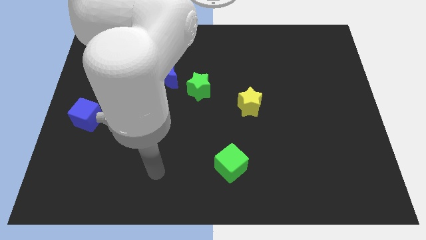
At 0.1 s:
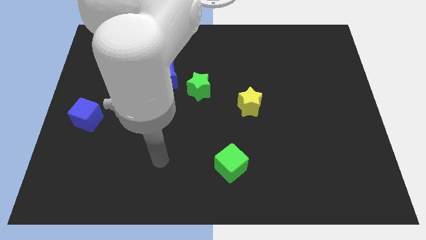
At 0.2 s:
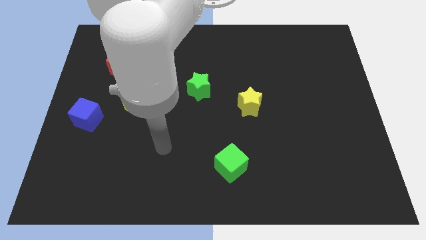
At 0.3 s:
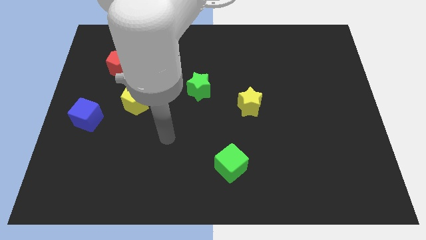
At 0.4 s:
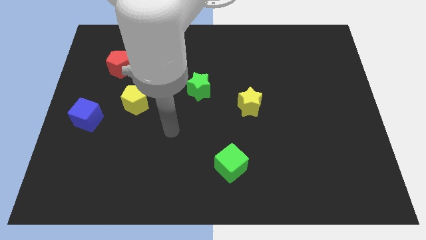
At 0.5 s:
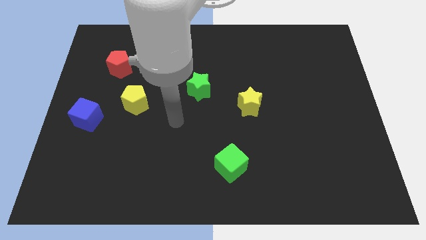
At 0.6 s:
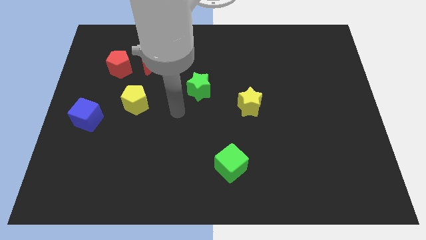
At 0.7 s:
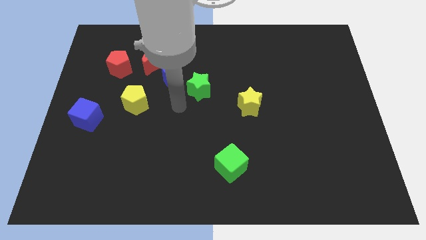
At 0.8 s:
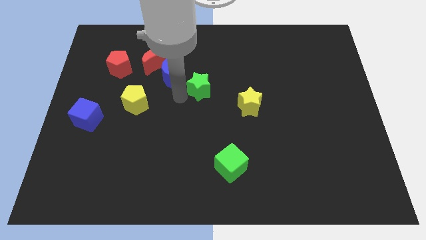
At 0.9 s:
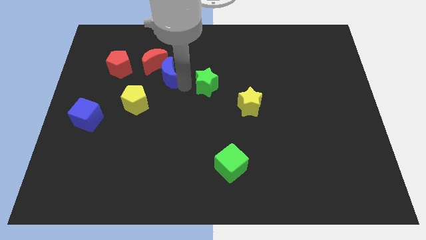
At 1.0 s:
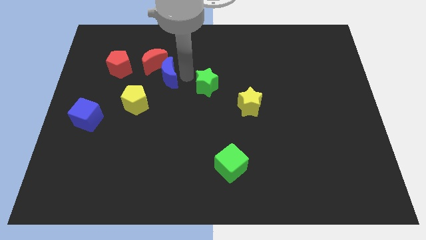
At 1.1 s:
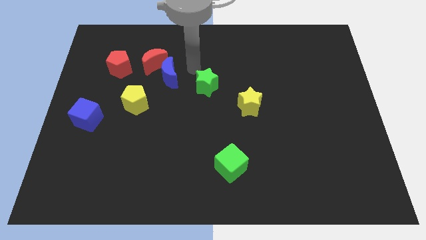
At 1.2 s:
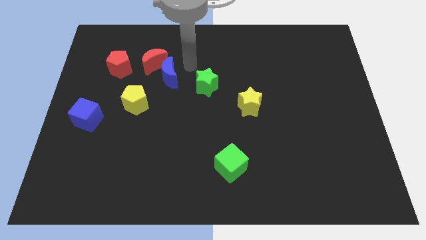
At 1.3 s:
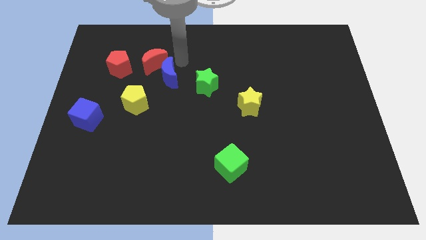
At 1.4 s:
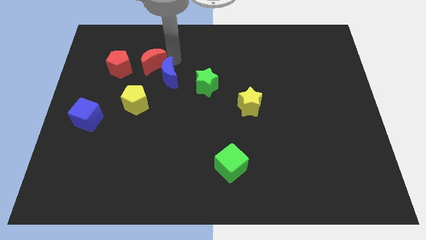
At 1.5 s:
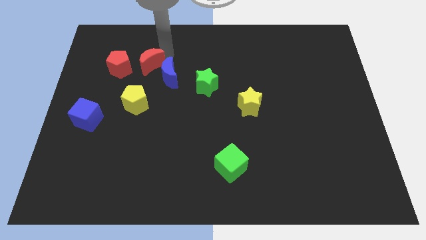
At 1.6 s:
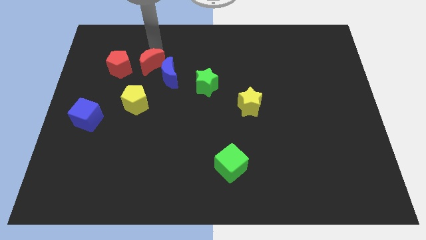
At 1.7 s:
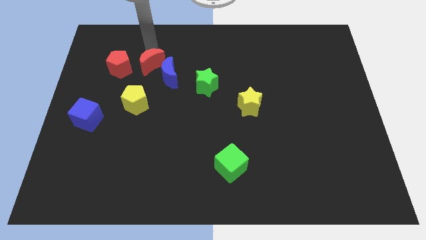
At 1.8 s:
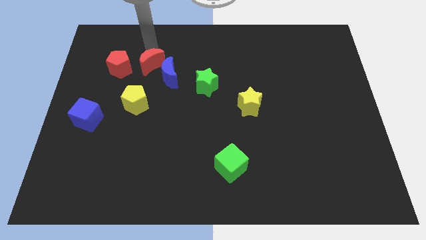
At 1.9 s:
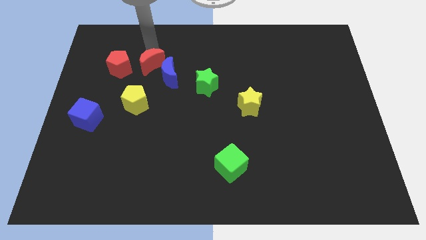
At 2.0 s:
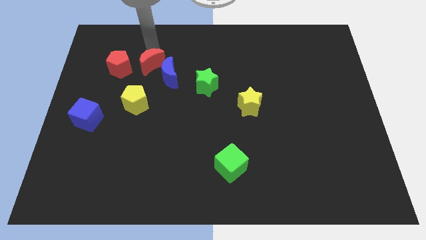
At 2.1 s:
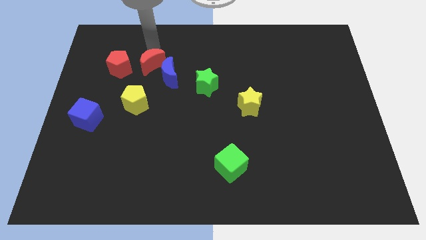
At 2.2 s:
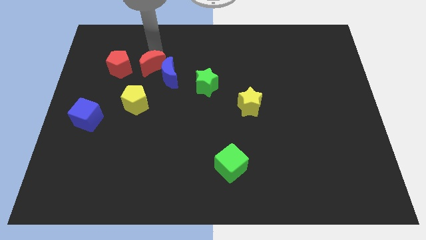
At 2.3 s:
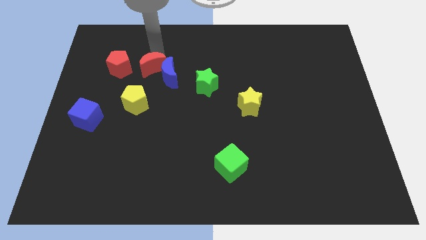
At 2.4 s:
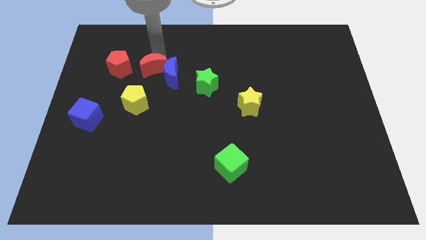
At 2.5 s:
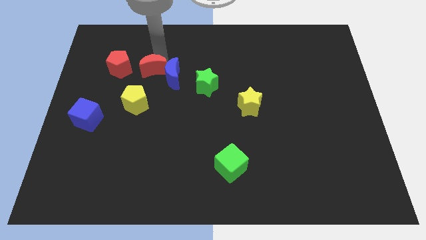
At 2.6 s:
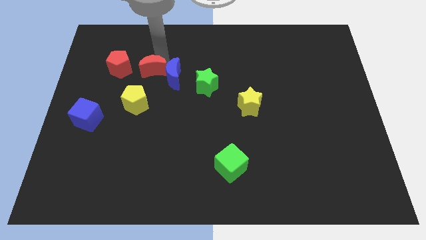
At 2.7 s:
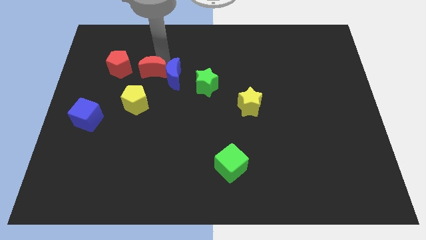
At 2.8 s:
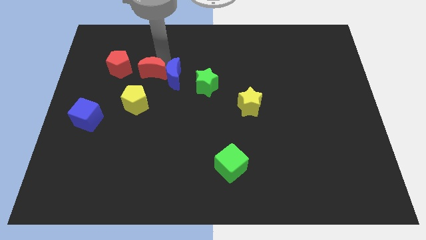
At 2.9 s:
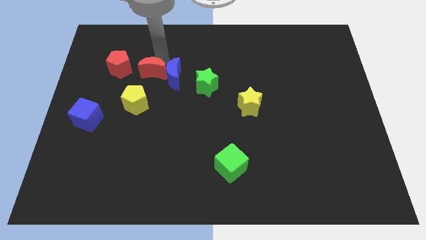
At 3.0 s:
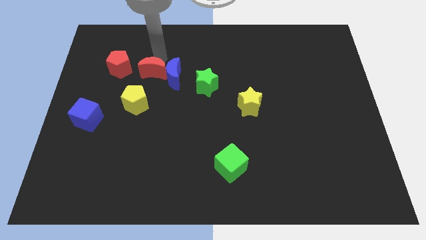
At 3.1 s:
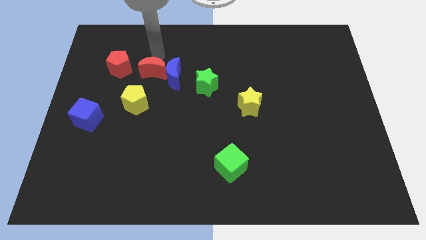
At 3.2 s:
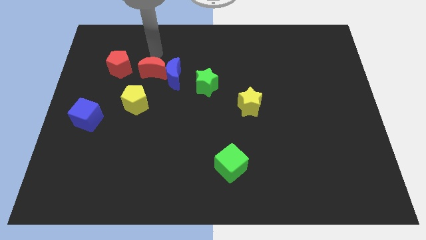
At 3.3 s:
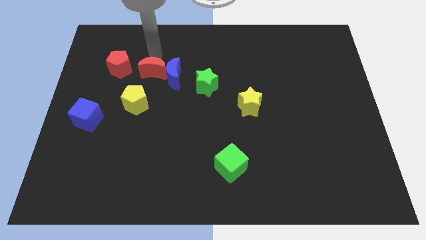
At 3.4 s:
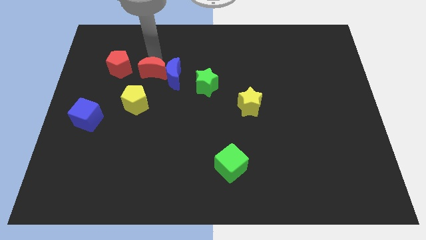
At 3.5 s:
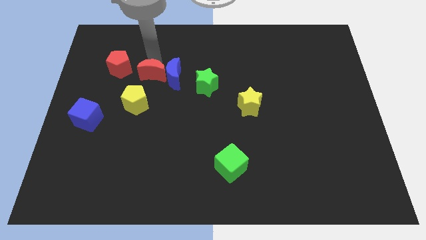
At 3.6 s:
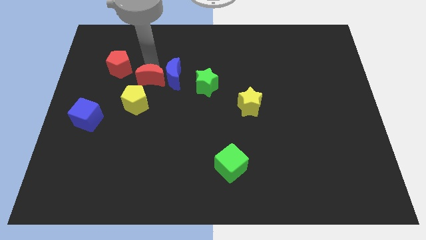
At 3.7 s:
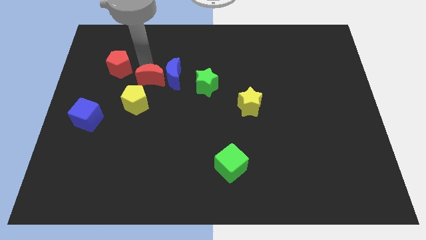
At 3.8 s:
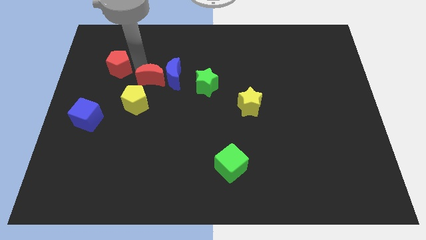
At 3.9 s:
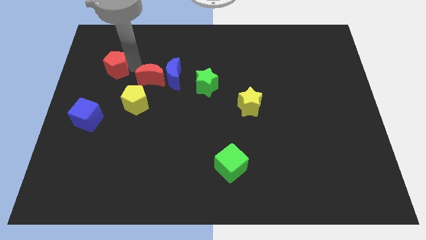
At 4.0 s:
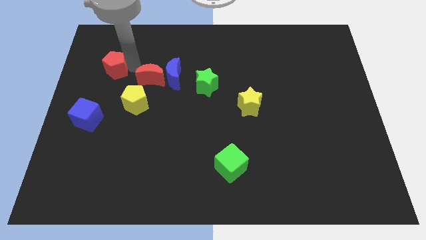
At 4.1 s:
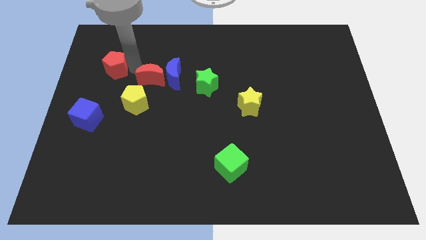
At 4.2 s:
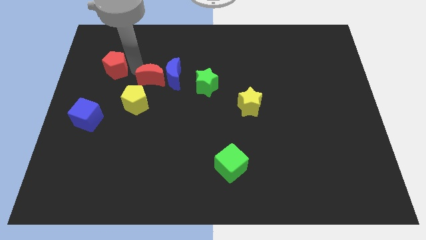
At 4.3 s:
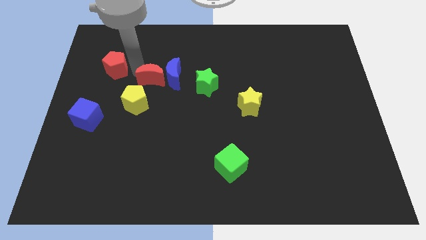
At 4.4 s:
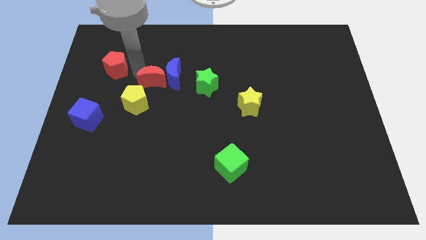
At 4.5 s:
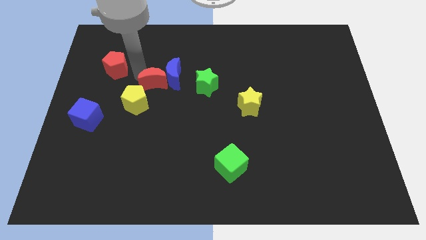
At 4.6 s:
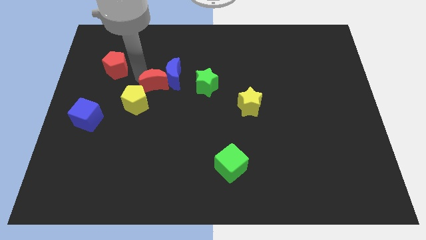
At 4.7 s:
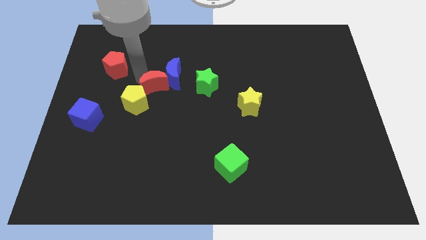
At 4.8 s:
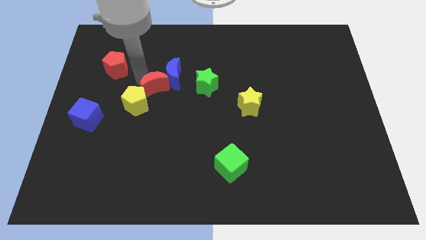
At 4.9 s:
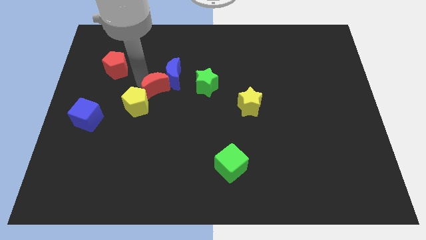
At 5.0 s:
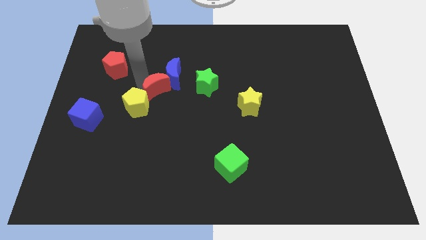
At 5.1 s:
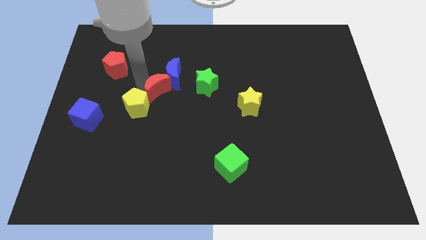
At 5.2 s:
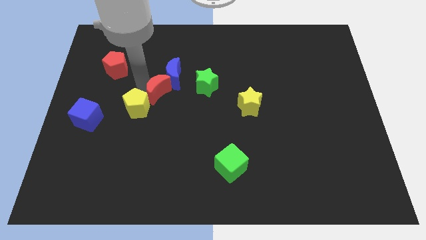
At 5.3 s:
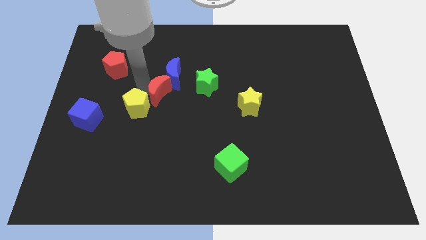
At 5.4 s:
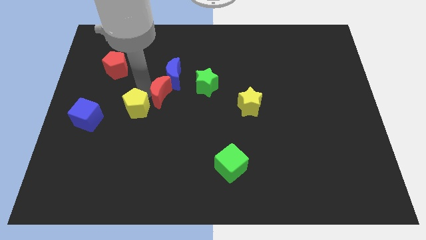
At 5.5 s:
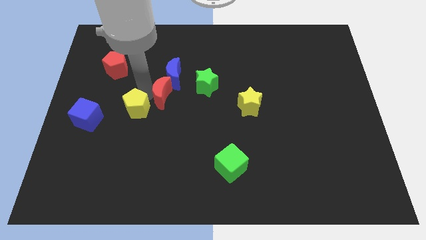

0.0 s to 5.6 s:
move the red moon to the center of the board

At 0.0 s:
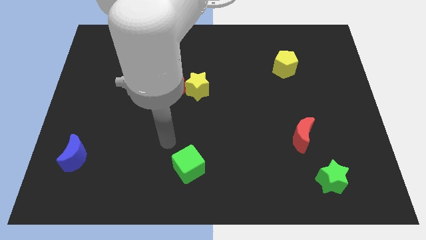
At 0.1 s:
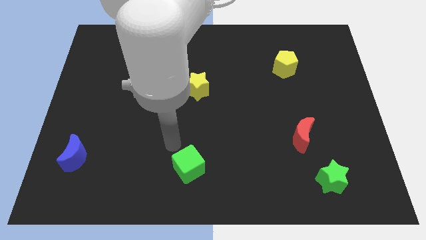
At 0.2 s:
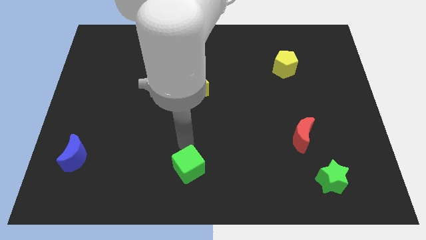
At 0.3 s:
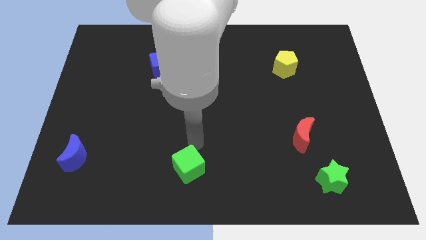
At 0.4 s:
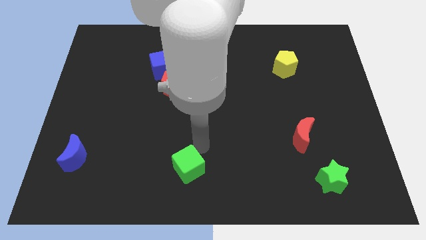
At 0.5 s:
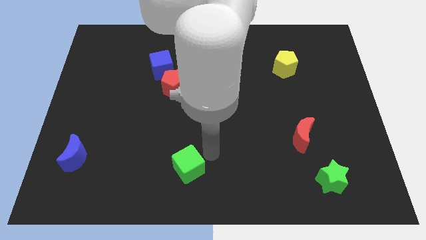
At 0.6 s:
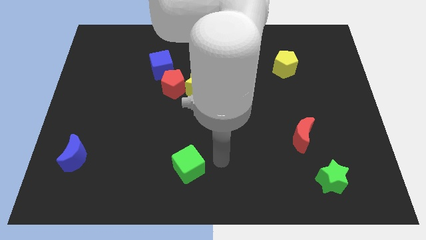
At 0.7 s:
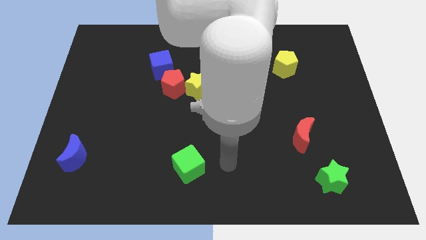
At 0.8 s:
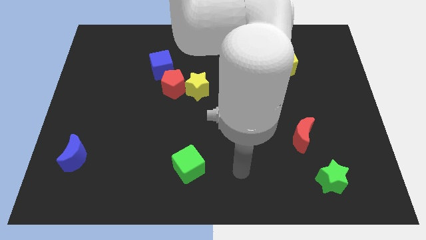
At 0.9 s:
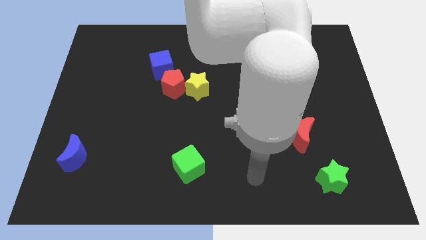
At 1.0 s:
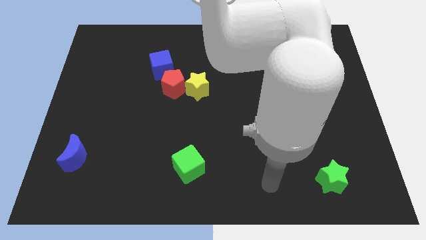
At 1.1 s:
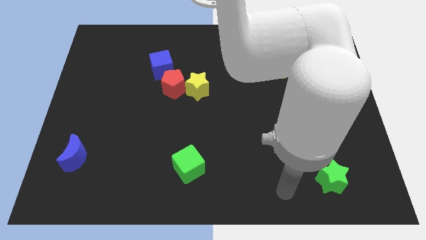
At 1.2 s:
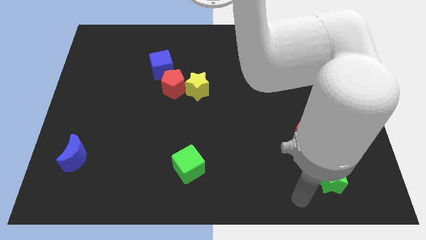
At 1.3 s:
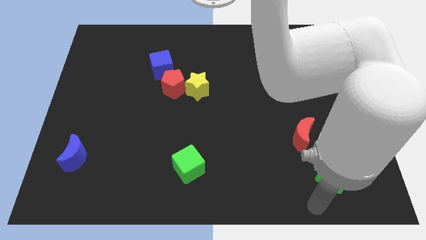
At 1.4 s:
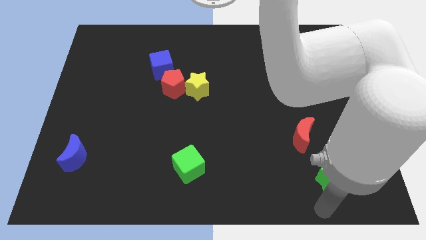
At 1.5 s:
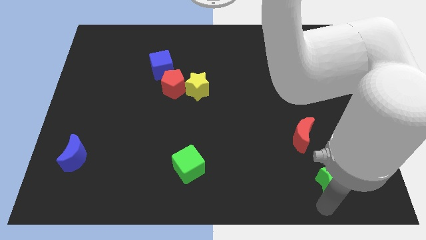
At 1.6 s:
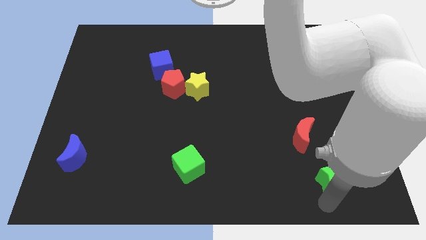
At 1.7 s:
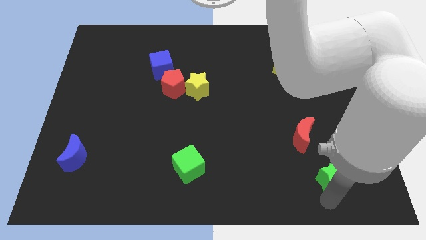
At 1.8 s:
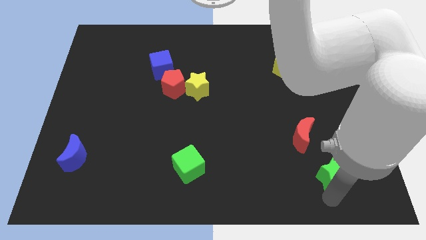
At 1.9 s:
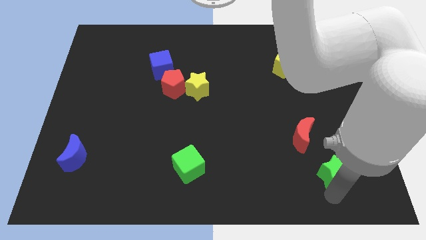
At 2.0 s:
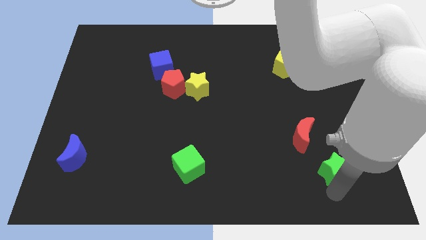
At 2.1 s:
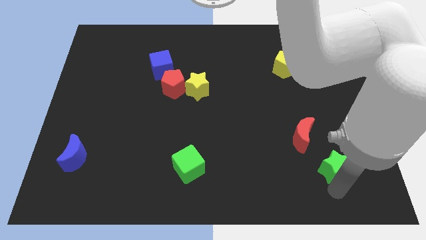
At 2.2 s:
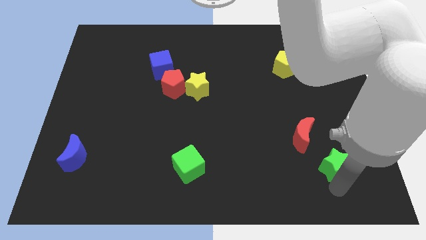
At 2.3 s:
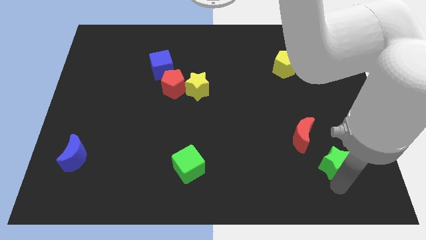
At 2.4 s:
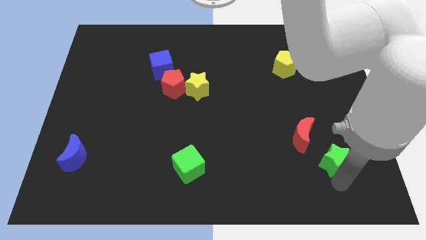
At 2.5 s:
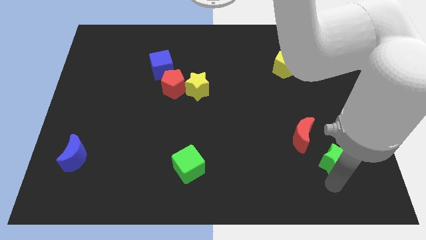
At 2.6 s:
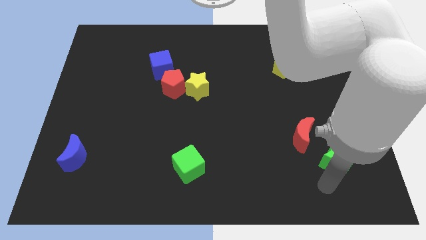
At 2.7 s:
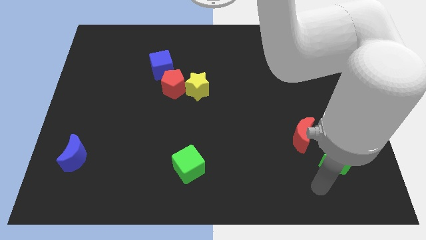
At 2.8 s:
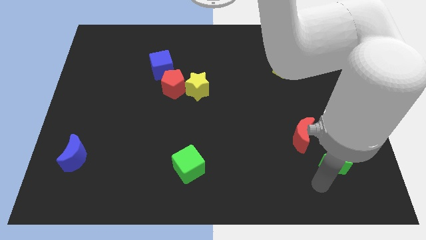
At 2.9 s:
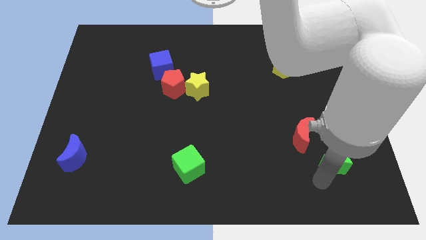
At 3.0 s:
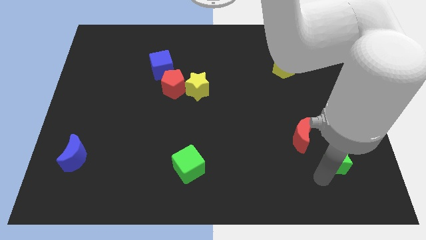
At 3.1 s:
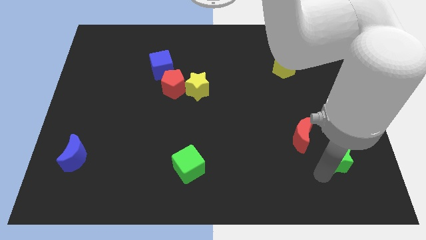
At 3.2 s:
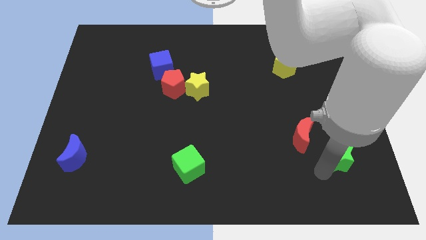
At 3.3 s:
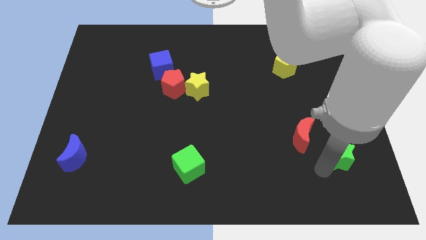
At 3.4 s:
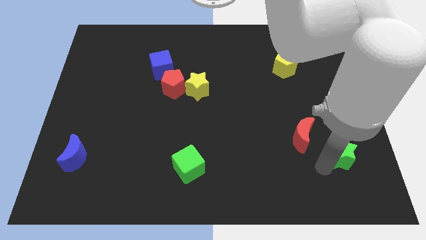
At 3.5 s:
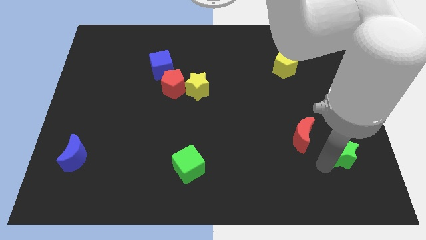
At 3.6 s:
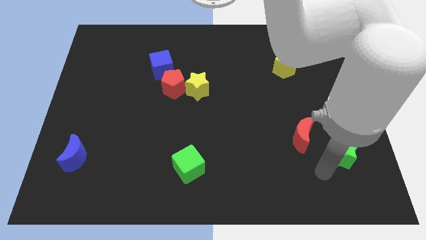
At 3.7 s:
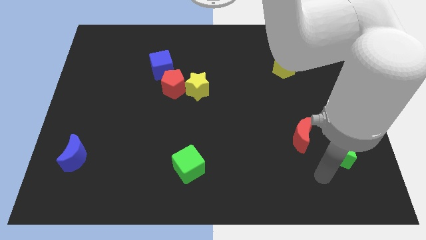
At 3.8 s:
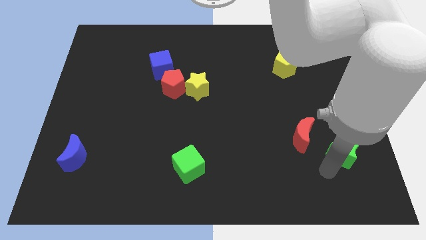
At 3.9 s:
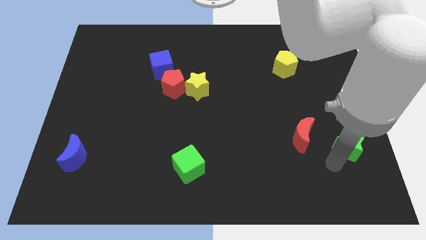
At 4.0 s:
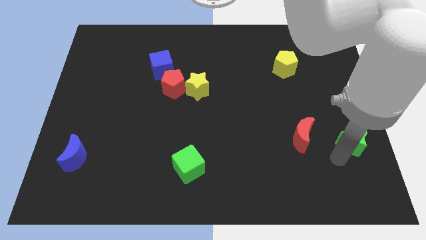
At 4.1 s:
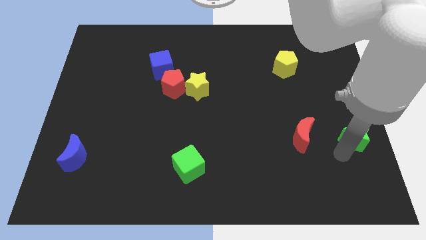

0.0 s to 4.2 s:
move the green star to the right side
